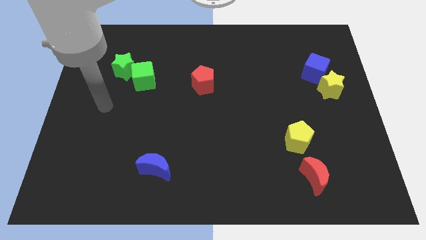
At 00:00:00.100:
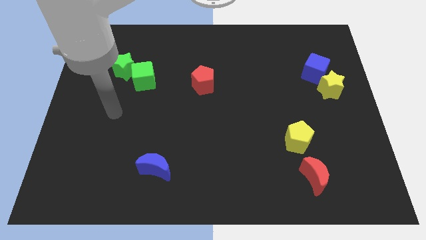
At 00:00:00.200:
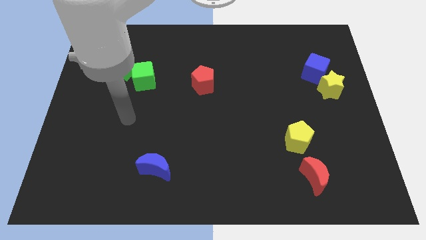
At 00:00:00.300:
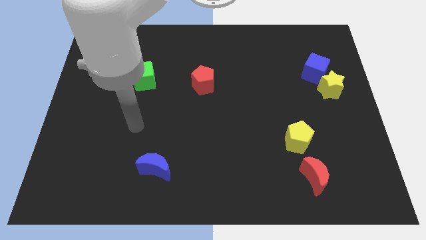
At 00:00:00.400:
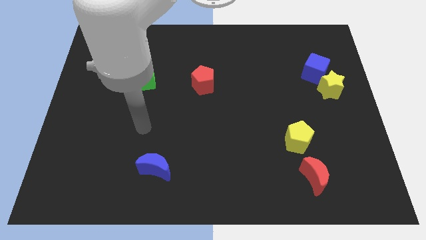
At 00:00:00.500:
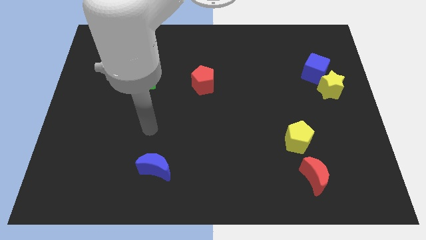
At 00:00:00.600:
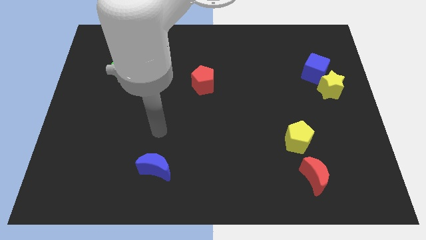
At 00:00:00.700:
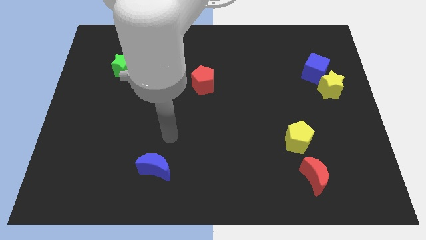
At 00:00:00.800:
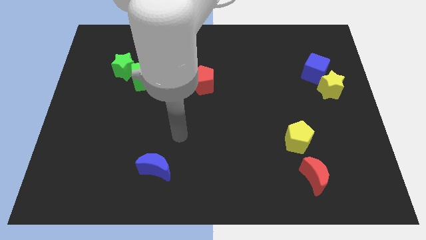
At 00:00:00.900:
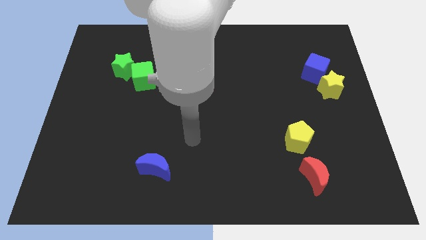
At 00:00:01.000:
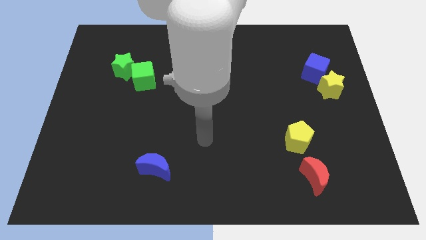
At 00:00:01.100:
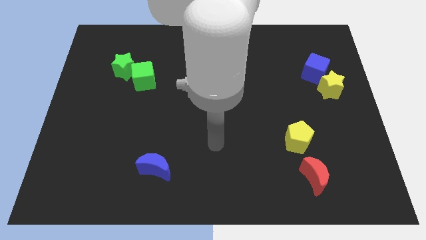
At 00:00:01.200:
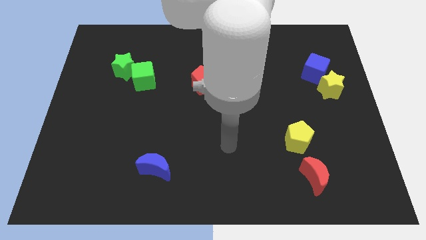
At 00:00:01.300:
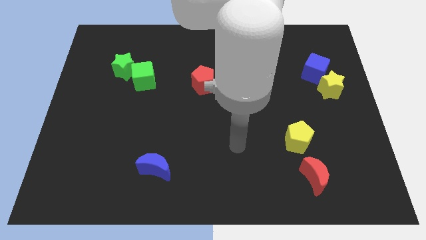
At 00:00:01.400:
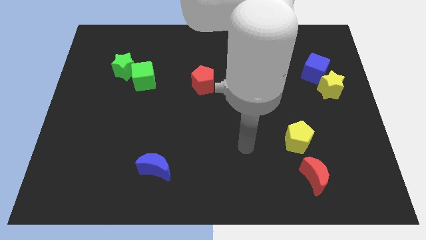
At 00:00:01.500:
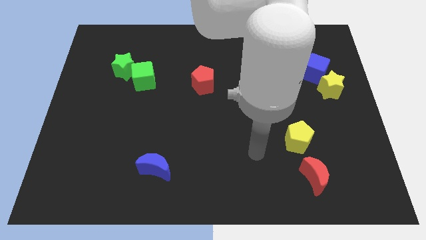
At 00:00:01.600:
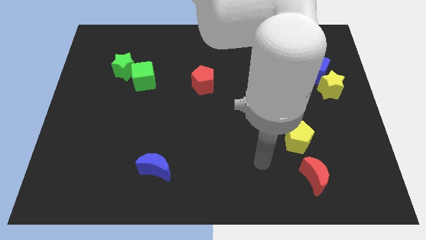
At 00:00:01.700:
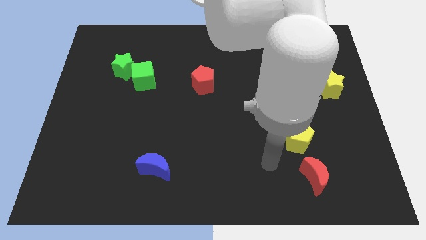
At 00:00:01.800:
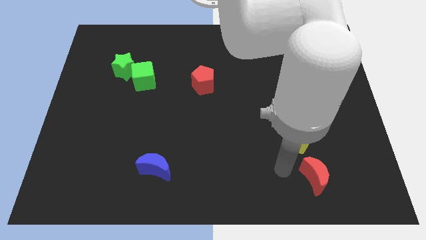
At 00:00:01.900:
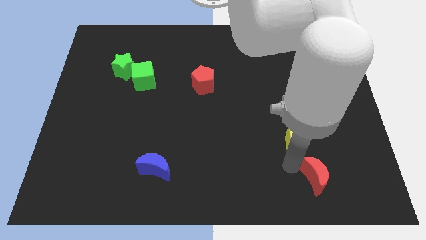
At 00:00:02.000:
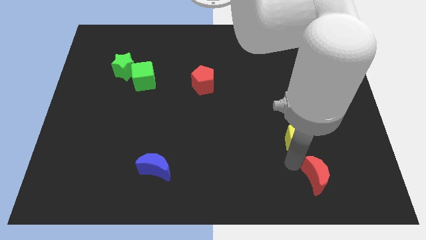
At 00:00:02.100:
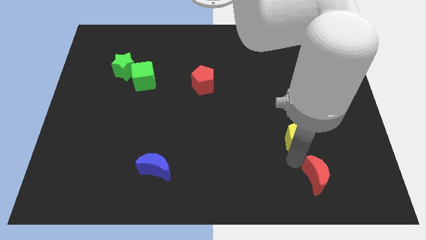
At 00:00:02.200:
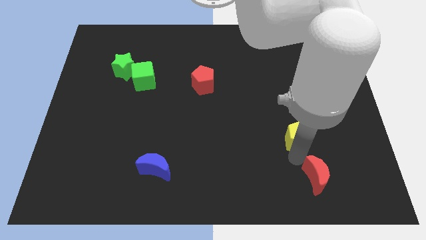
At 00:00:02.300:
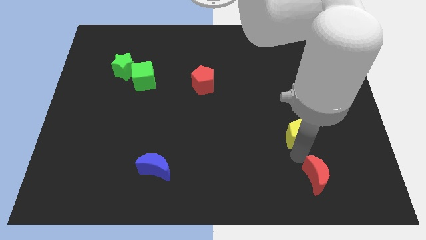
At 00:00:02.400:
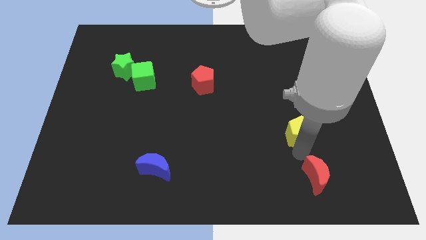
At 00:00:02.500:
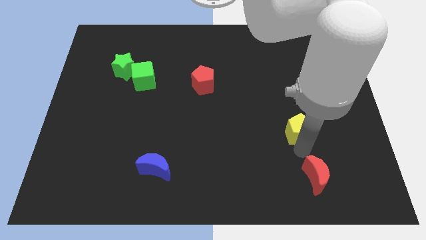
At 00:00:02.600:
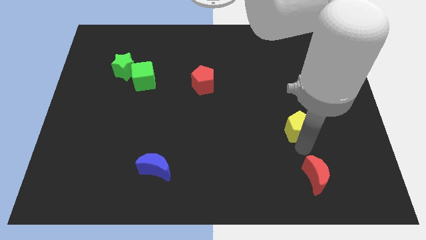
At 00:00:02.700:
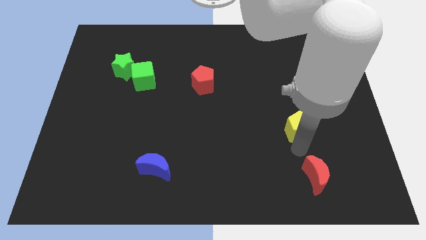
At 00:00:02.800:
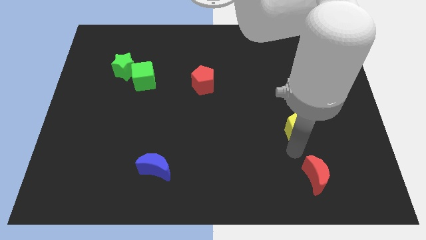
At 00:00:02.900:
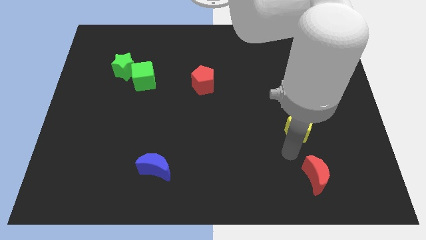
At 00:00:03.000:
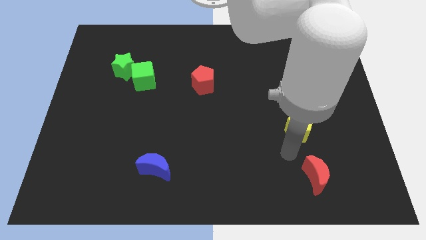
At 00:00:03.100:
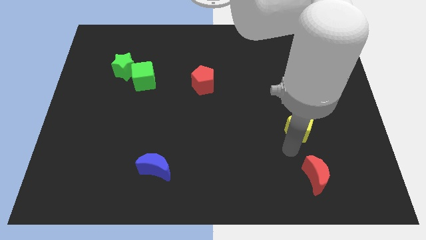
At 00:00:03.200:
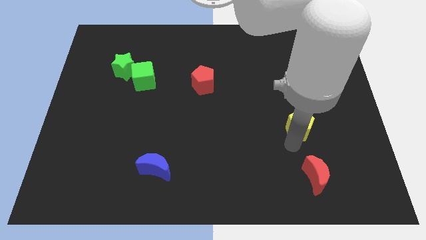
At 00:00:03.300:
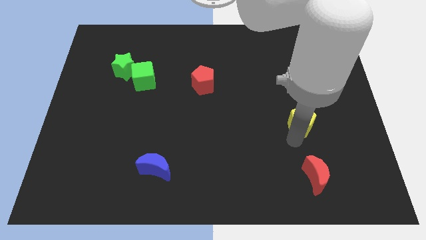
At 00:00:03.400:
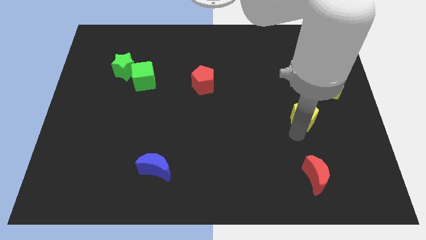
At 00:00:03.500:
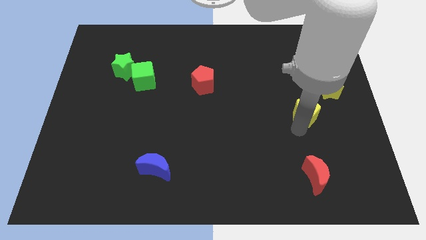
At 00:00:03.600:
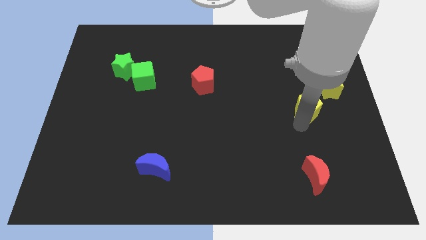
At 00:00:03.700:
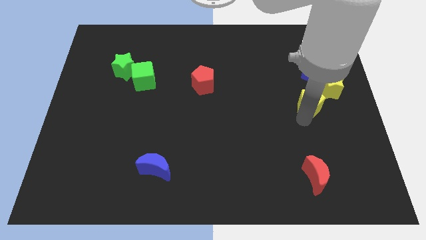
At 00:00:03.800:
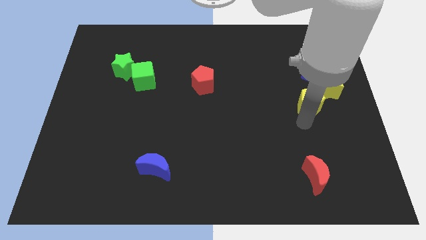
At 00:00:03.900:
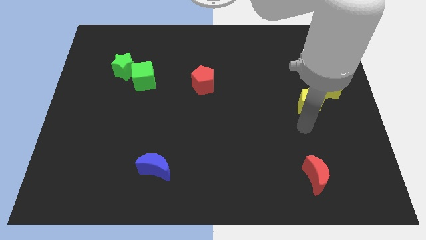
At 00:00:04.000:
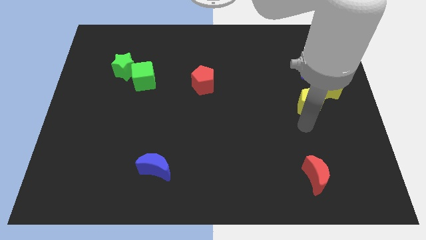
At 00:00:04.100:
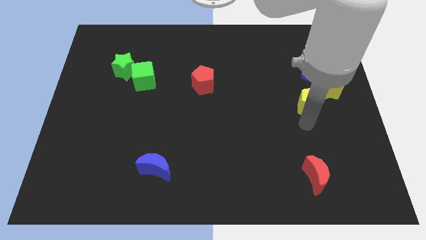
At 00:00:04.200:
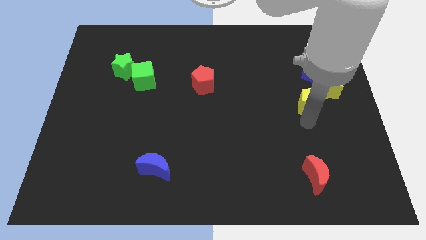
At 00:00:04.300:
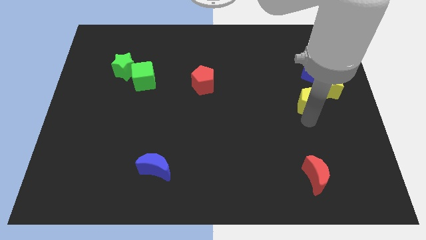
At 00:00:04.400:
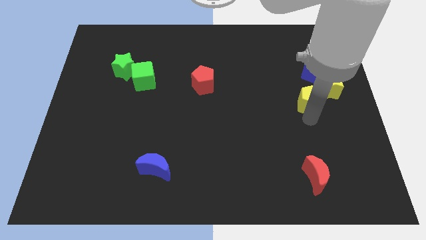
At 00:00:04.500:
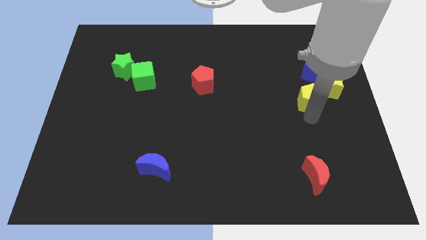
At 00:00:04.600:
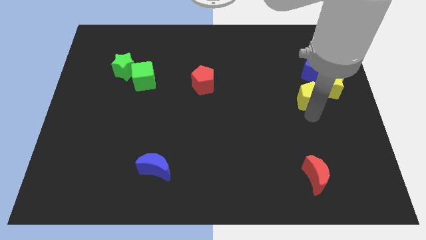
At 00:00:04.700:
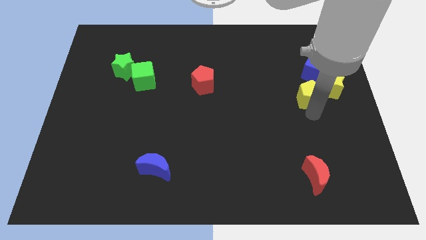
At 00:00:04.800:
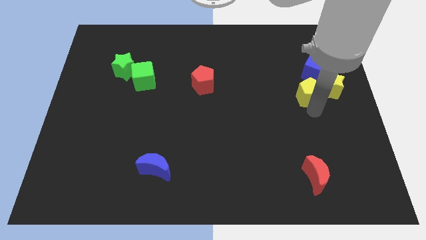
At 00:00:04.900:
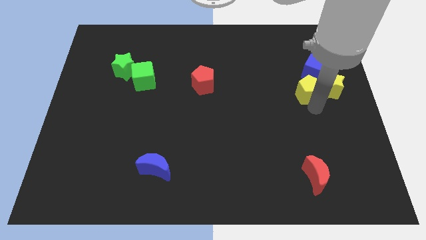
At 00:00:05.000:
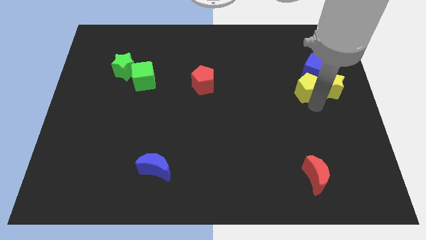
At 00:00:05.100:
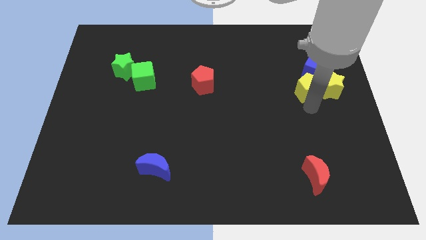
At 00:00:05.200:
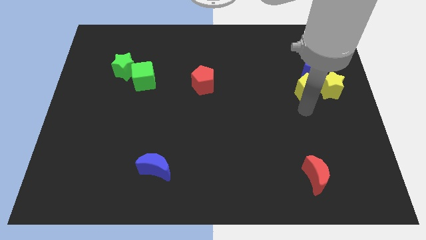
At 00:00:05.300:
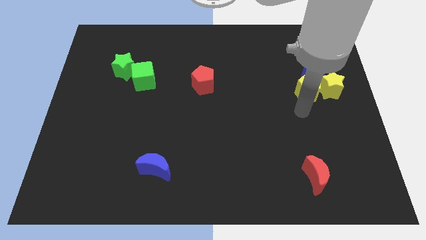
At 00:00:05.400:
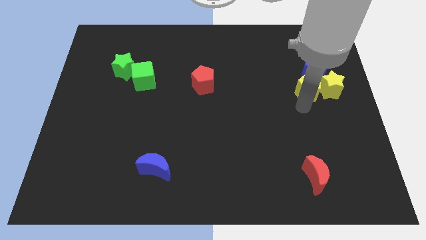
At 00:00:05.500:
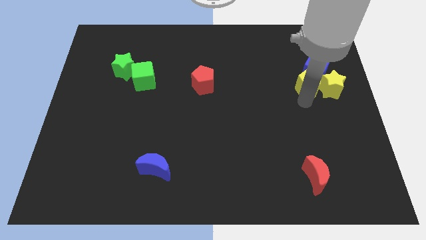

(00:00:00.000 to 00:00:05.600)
put the yellow pentagon towards the blue cube

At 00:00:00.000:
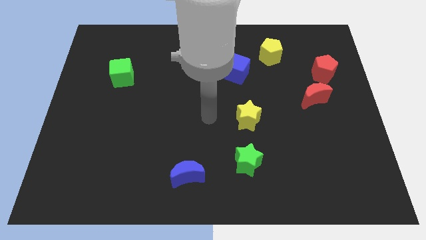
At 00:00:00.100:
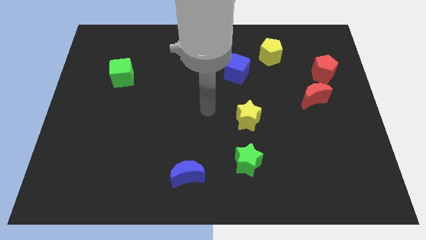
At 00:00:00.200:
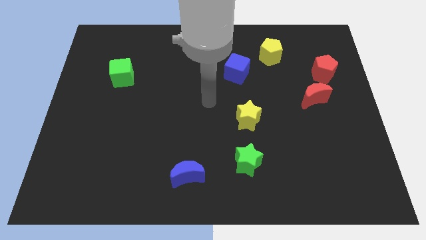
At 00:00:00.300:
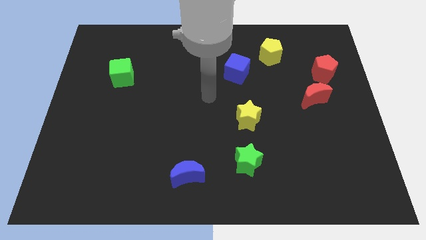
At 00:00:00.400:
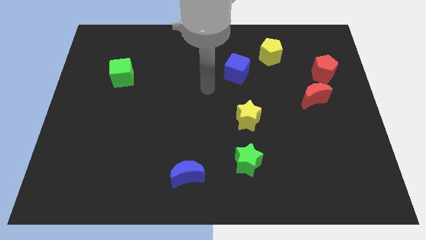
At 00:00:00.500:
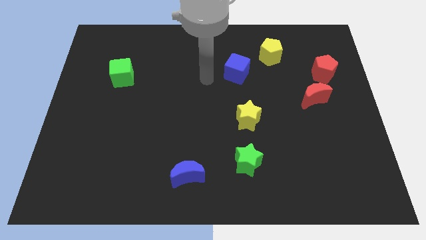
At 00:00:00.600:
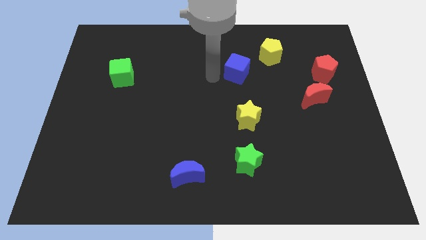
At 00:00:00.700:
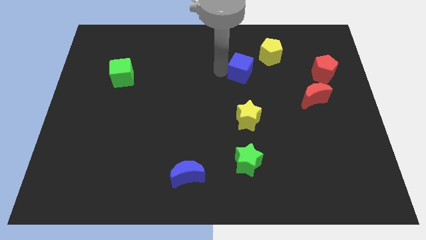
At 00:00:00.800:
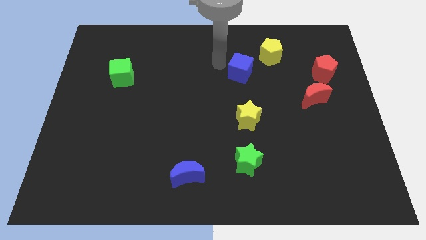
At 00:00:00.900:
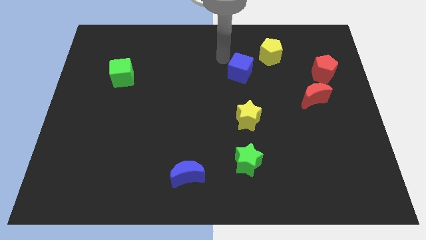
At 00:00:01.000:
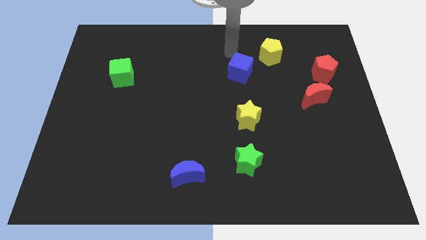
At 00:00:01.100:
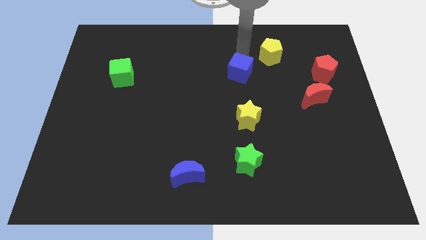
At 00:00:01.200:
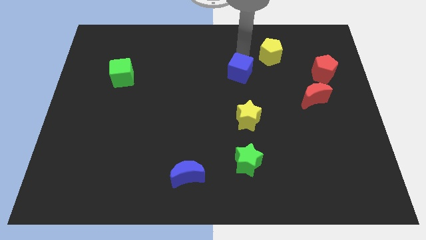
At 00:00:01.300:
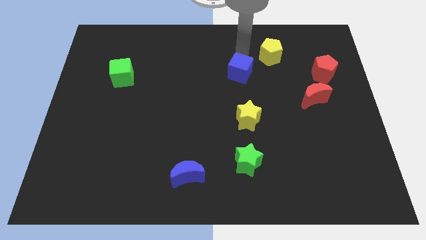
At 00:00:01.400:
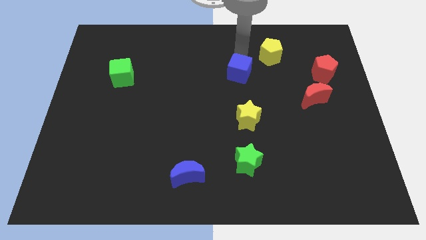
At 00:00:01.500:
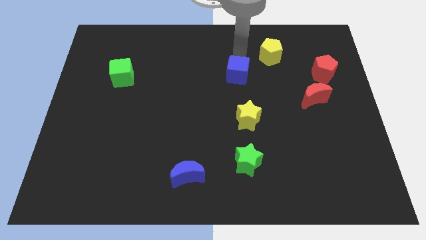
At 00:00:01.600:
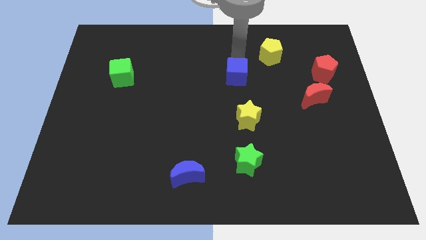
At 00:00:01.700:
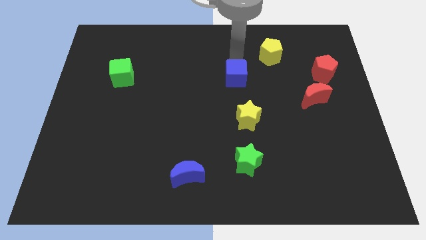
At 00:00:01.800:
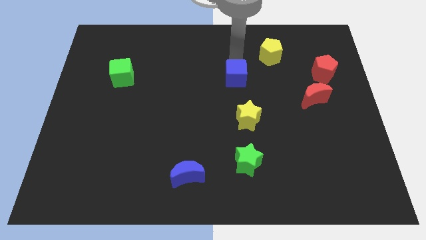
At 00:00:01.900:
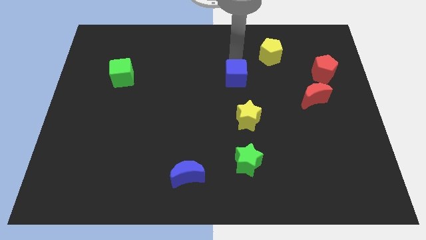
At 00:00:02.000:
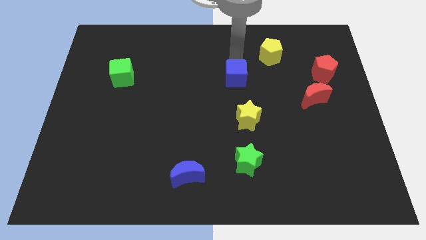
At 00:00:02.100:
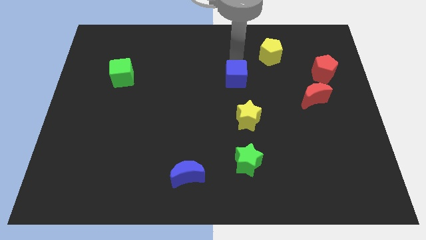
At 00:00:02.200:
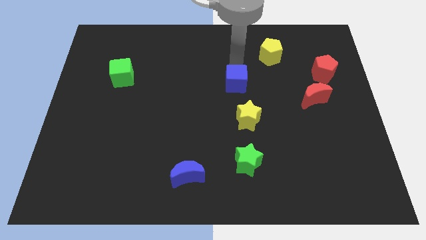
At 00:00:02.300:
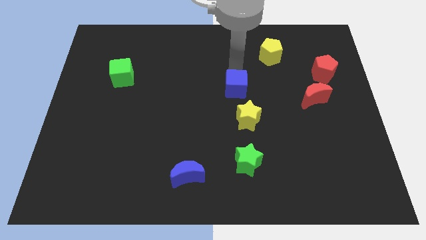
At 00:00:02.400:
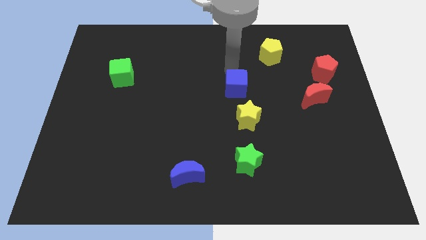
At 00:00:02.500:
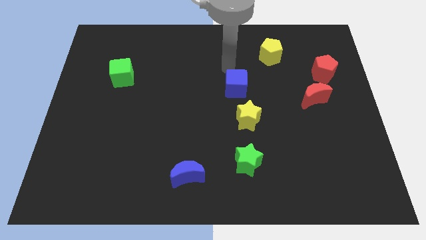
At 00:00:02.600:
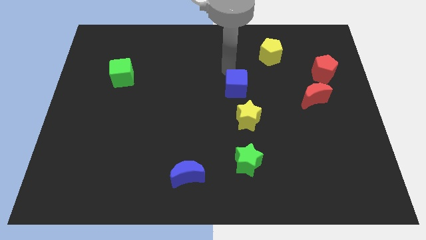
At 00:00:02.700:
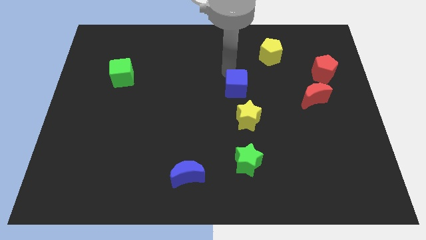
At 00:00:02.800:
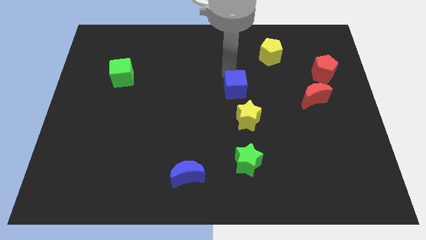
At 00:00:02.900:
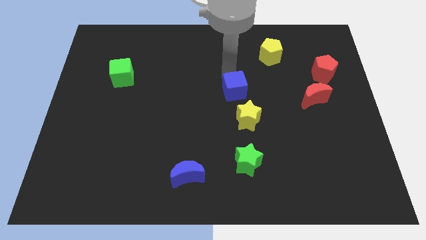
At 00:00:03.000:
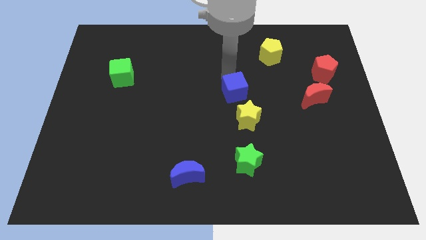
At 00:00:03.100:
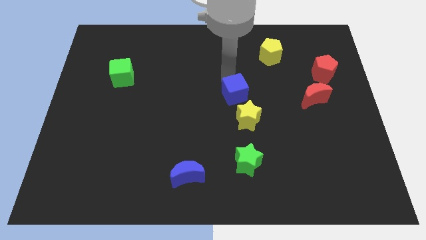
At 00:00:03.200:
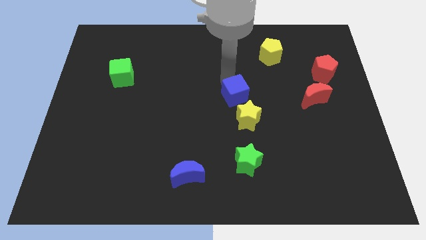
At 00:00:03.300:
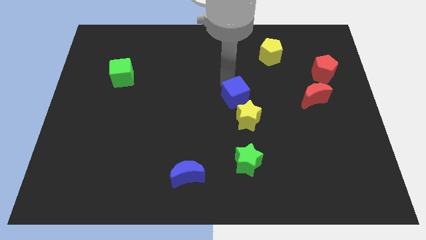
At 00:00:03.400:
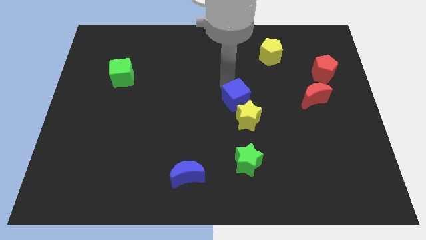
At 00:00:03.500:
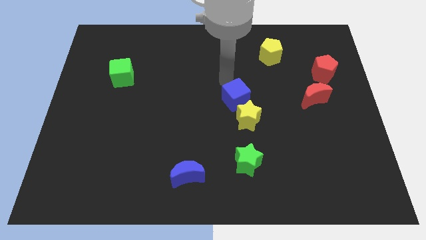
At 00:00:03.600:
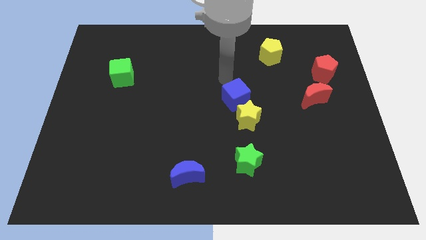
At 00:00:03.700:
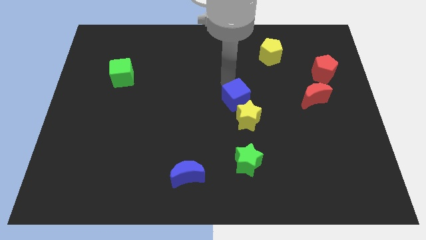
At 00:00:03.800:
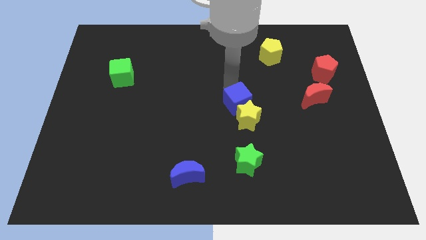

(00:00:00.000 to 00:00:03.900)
move the blue cube to the yellow star
